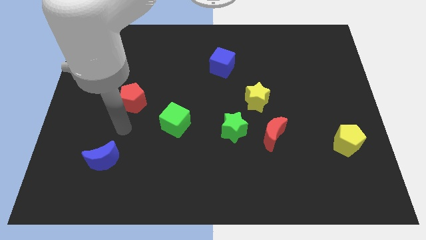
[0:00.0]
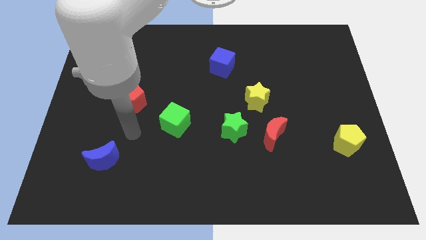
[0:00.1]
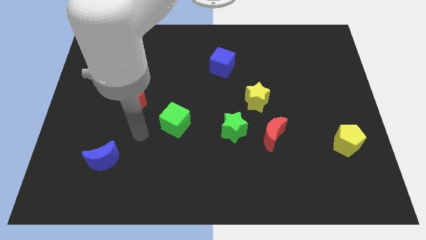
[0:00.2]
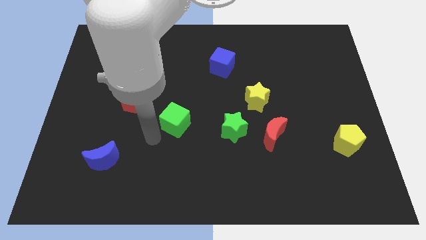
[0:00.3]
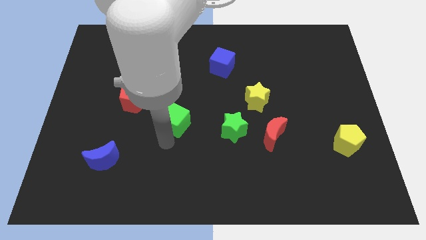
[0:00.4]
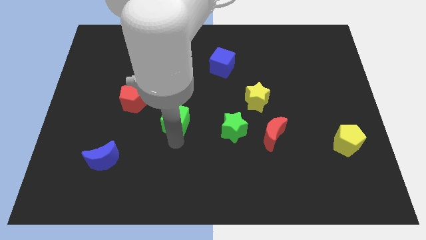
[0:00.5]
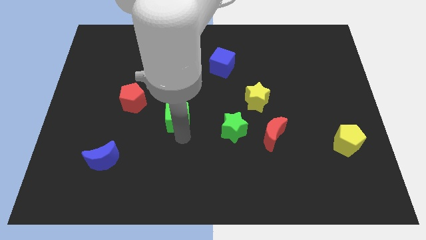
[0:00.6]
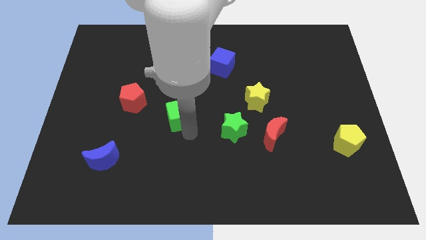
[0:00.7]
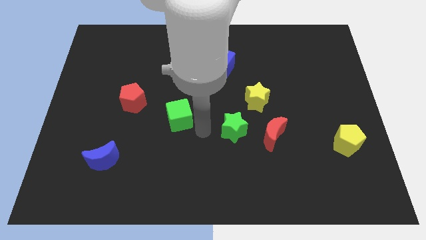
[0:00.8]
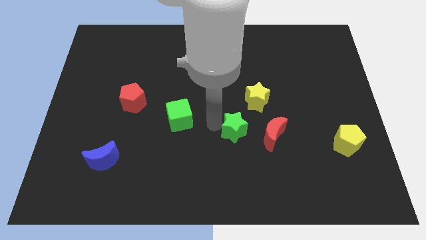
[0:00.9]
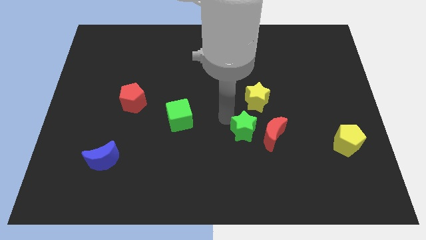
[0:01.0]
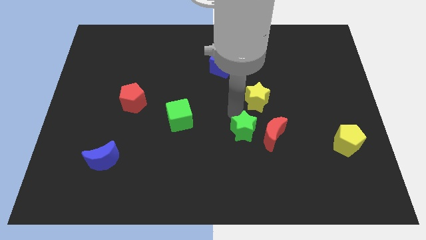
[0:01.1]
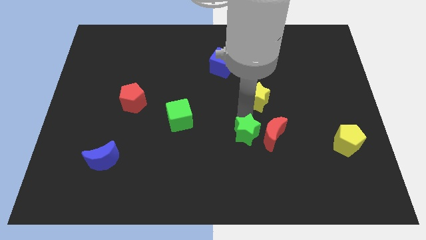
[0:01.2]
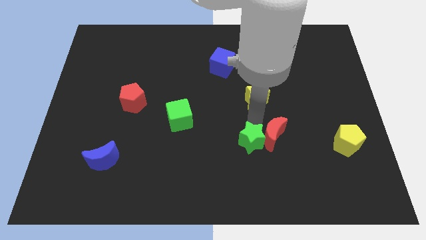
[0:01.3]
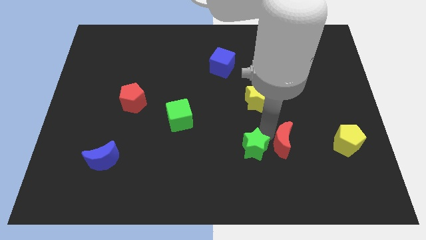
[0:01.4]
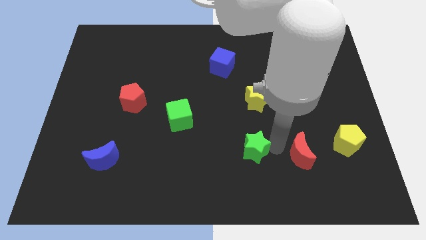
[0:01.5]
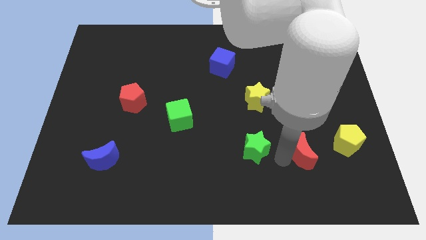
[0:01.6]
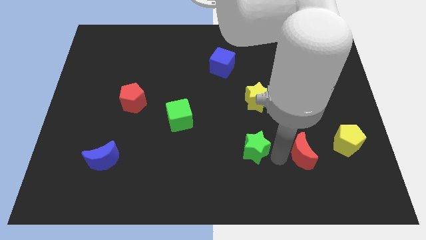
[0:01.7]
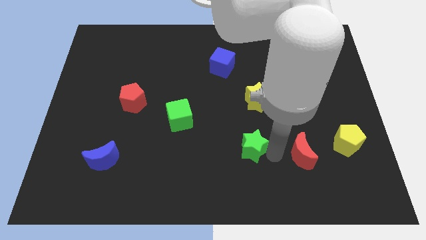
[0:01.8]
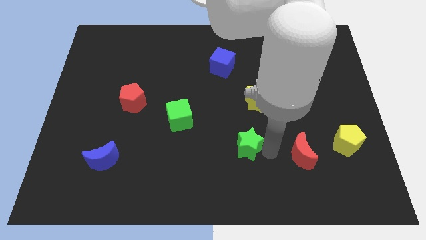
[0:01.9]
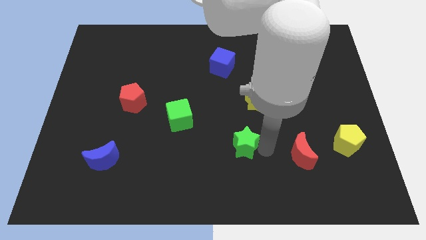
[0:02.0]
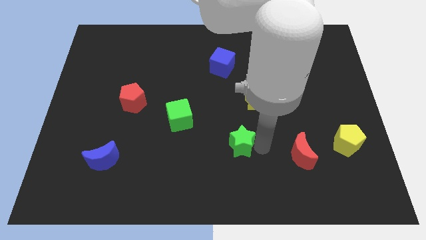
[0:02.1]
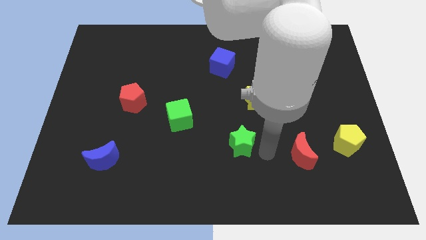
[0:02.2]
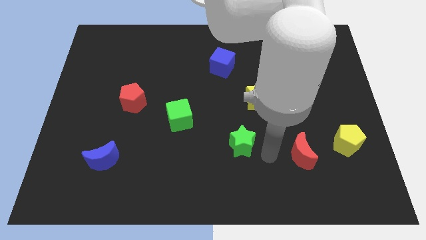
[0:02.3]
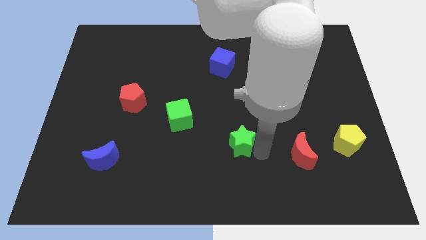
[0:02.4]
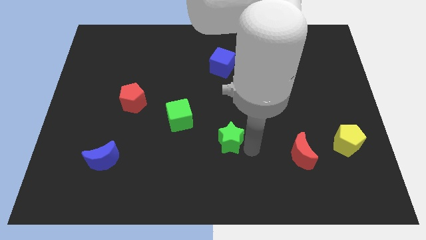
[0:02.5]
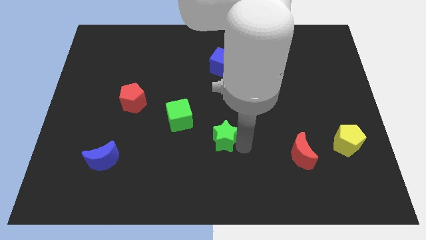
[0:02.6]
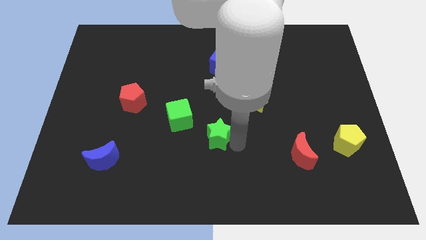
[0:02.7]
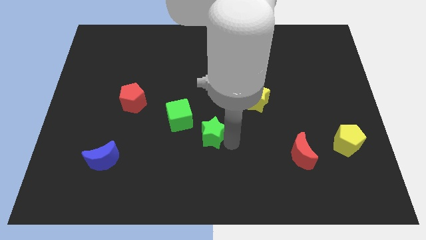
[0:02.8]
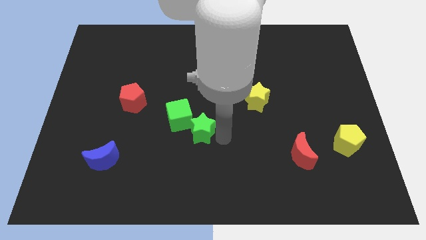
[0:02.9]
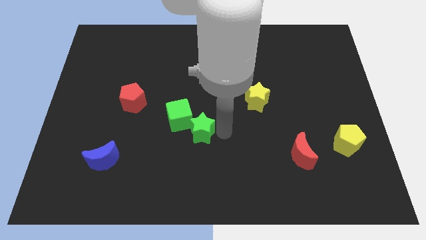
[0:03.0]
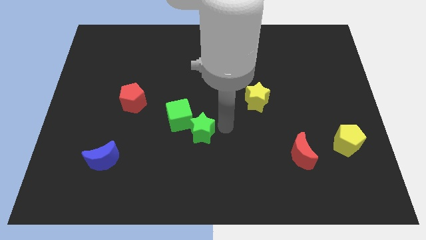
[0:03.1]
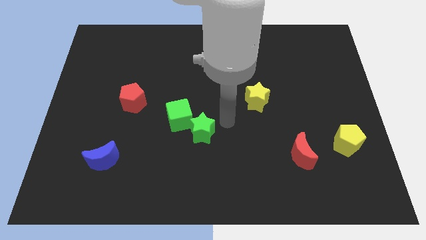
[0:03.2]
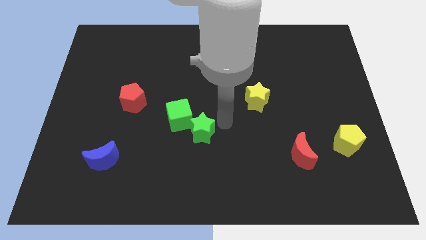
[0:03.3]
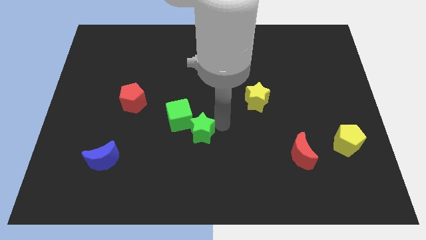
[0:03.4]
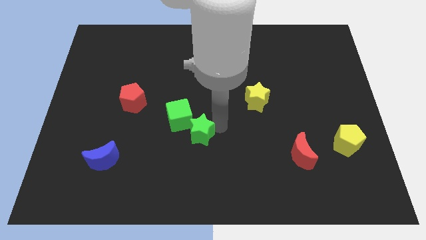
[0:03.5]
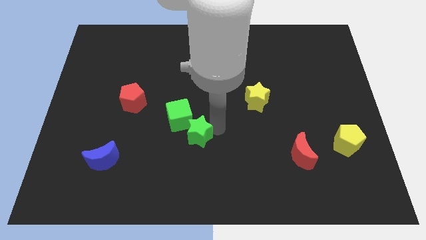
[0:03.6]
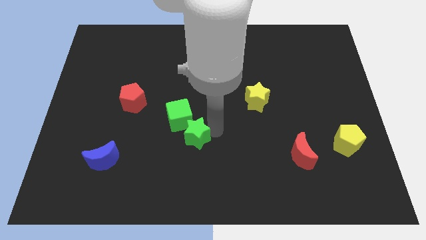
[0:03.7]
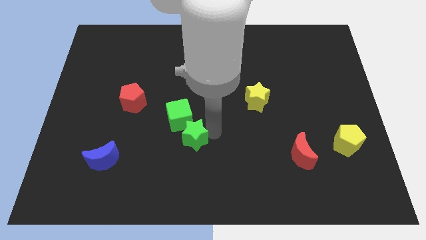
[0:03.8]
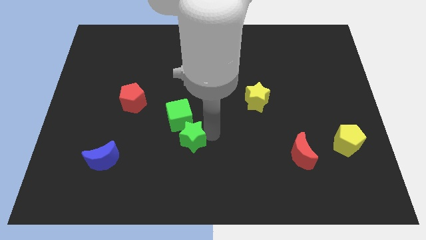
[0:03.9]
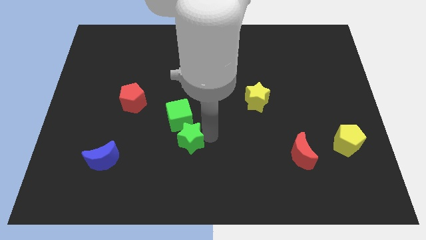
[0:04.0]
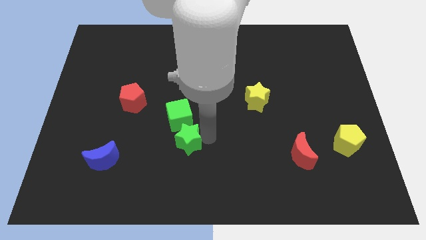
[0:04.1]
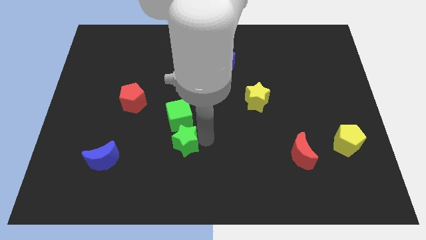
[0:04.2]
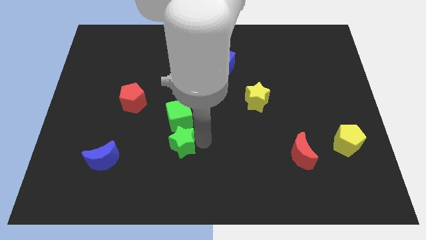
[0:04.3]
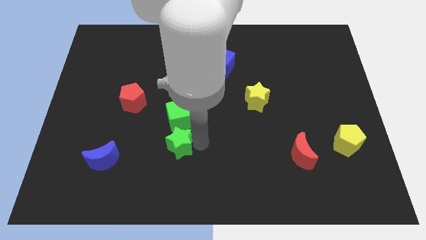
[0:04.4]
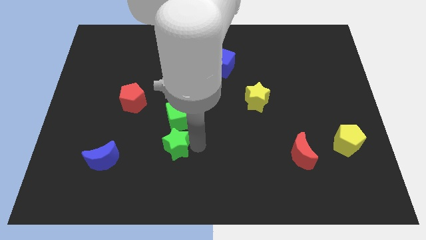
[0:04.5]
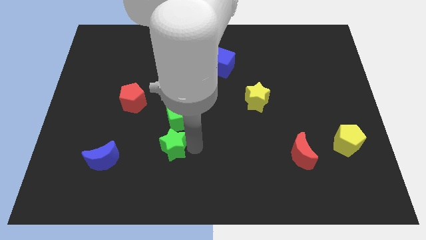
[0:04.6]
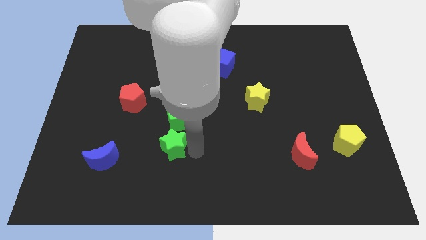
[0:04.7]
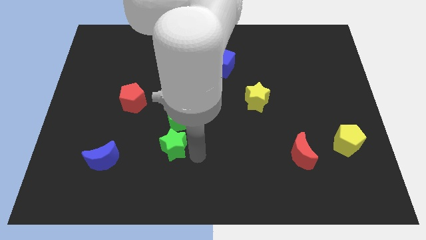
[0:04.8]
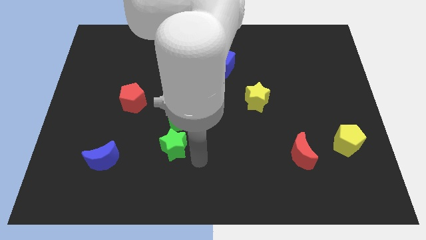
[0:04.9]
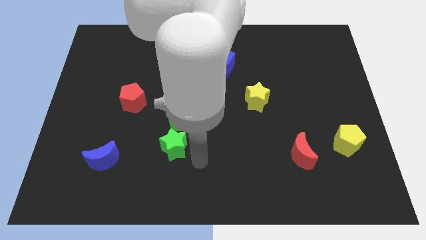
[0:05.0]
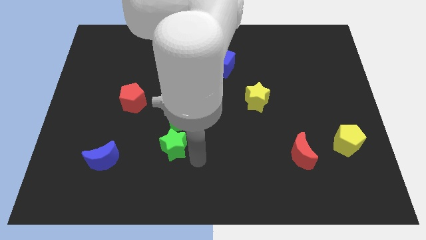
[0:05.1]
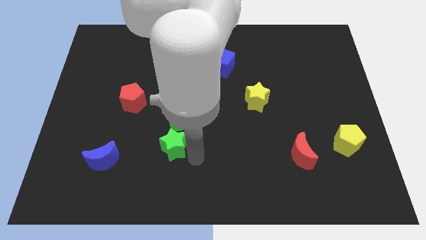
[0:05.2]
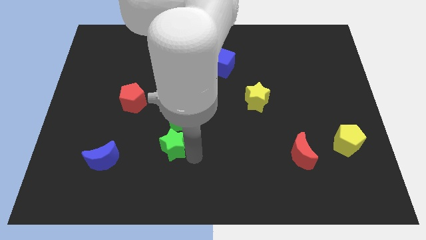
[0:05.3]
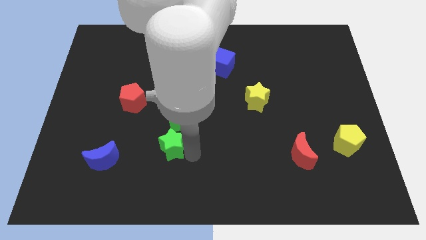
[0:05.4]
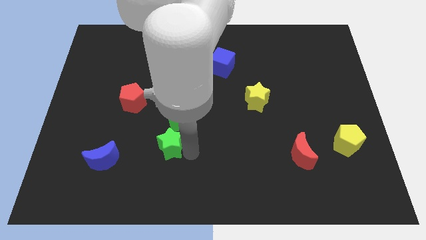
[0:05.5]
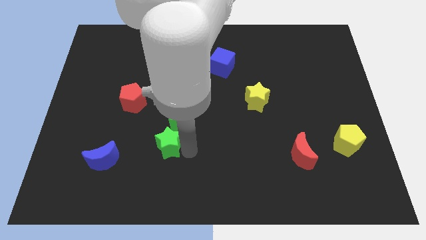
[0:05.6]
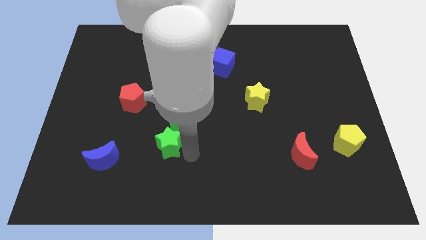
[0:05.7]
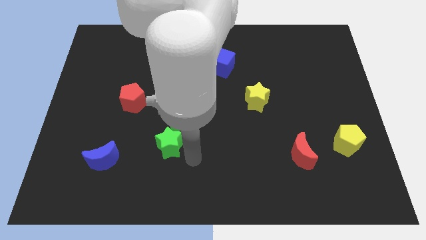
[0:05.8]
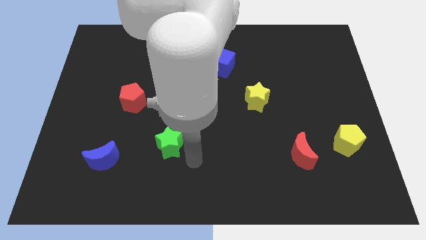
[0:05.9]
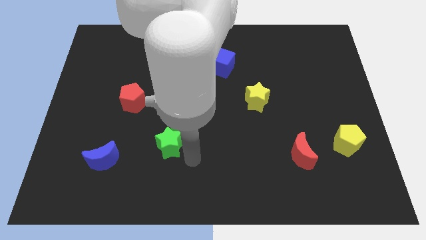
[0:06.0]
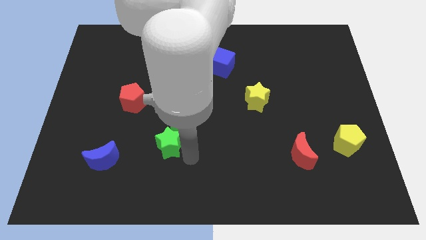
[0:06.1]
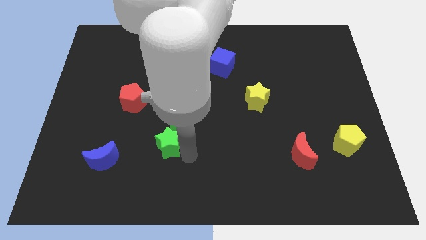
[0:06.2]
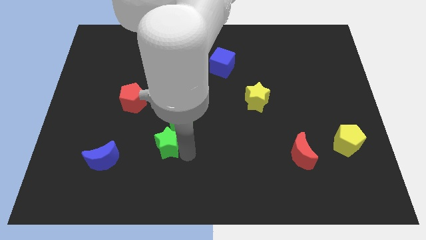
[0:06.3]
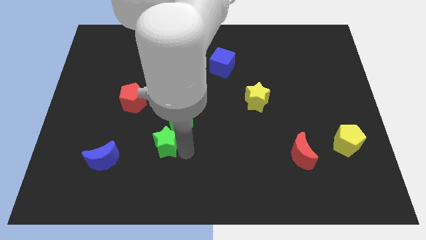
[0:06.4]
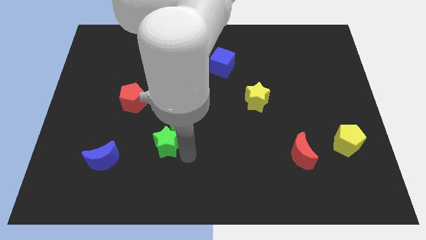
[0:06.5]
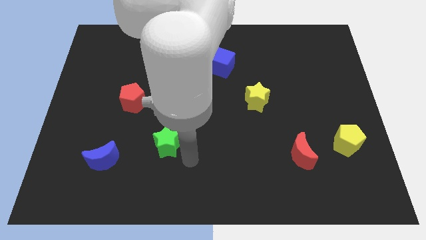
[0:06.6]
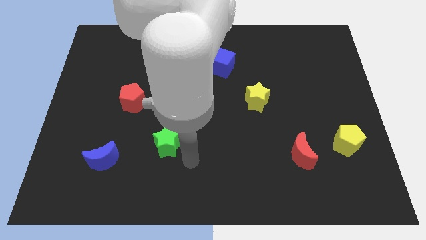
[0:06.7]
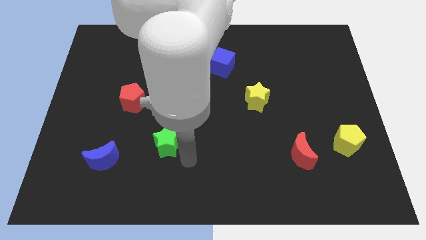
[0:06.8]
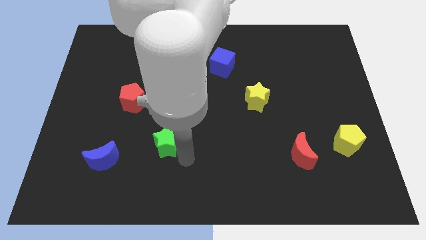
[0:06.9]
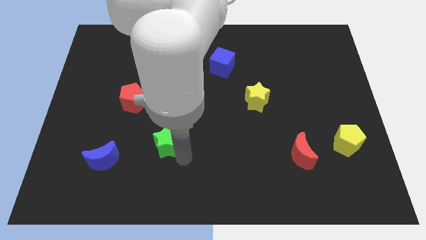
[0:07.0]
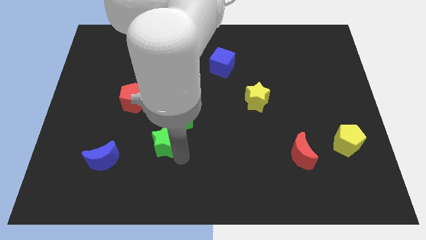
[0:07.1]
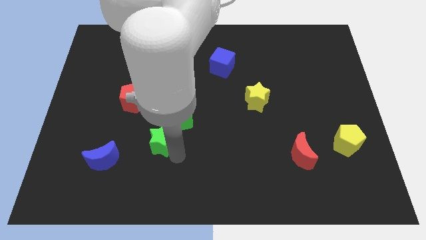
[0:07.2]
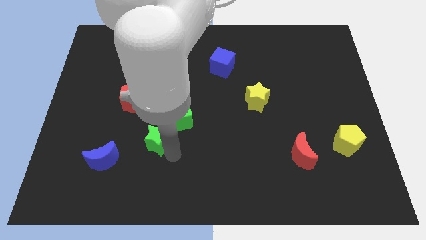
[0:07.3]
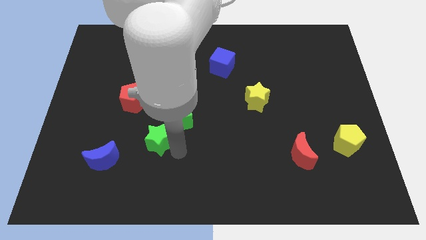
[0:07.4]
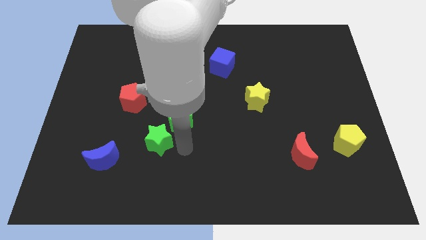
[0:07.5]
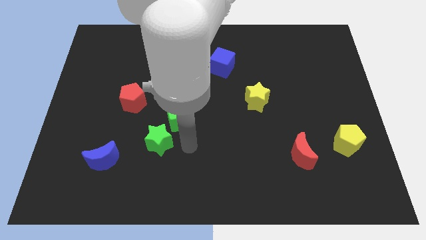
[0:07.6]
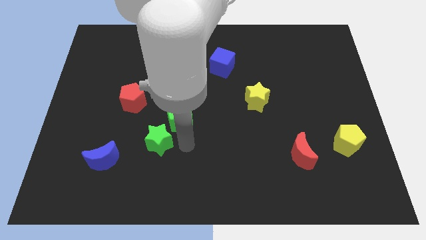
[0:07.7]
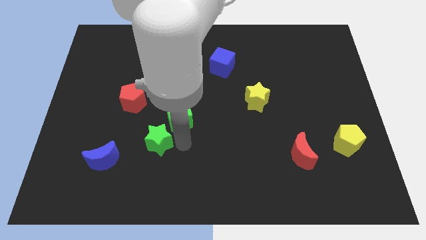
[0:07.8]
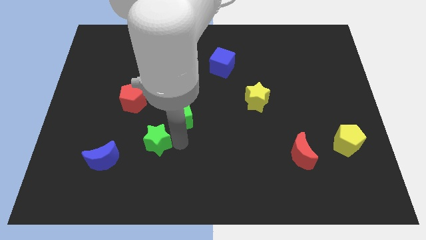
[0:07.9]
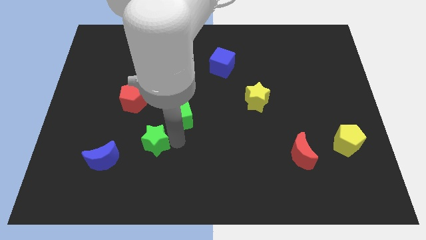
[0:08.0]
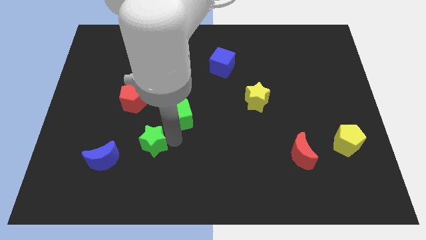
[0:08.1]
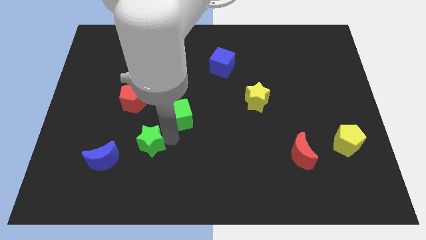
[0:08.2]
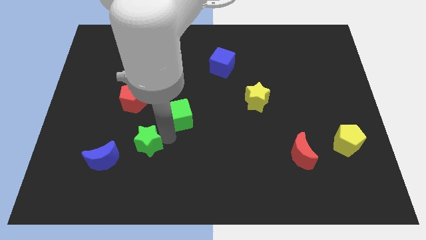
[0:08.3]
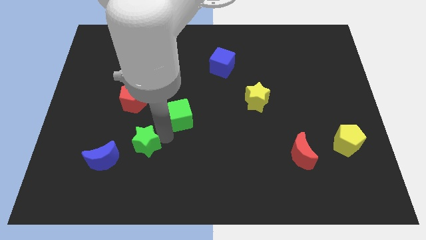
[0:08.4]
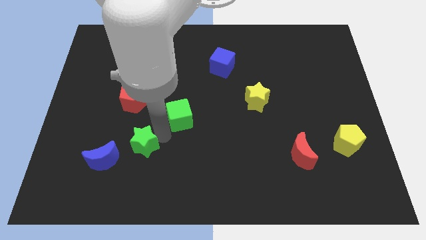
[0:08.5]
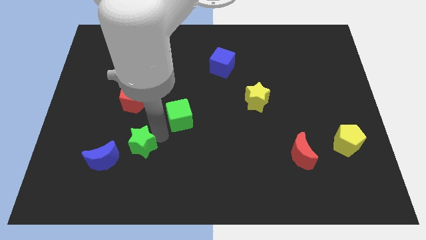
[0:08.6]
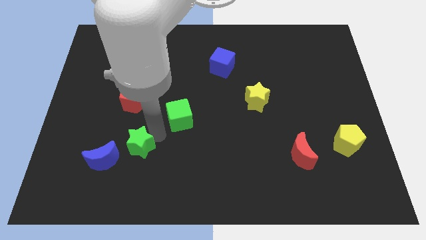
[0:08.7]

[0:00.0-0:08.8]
move the green star left
